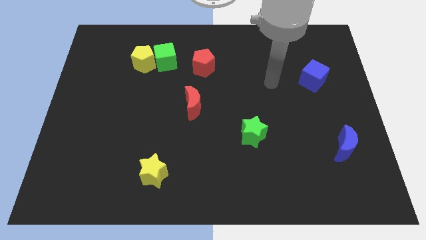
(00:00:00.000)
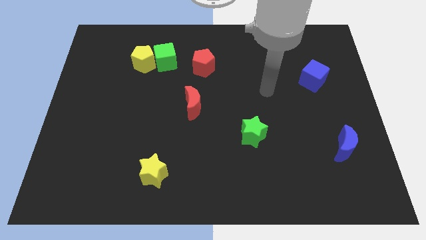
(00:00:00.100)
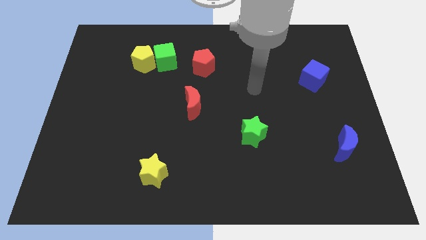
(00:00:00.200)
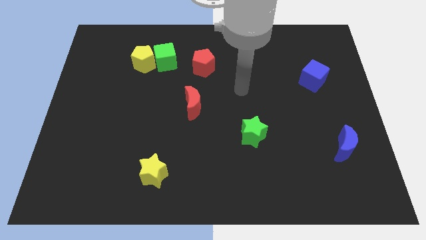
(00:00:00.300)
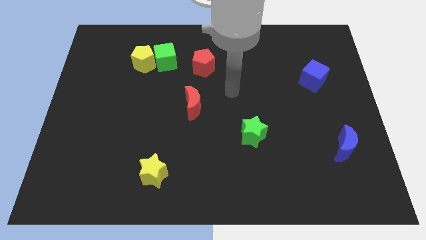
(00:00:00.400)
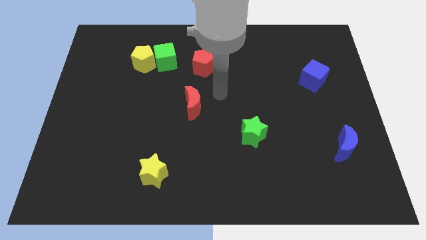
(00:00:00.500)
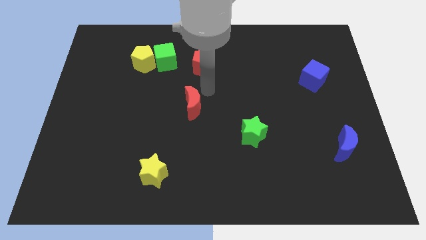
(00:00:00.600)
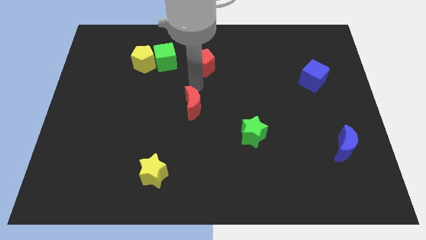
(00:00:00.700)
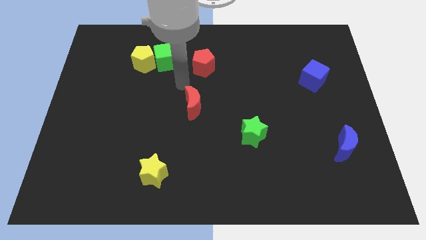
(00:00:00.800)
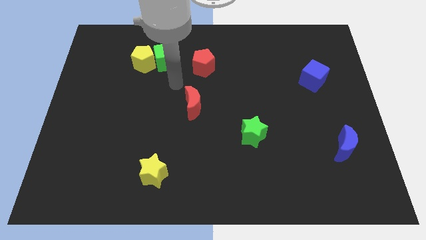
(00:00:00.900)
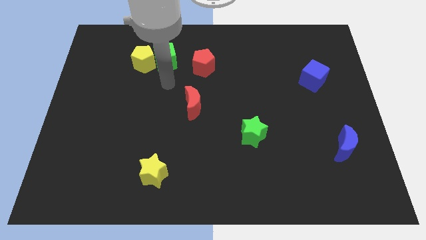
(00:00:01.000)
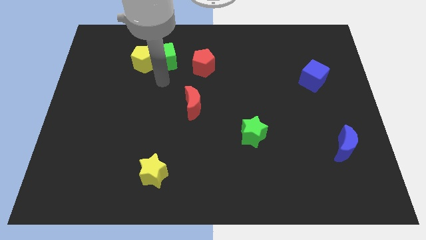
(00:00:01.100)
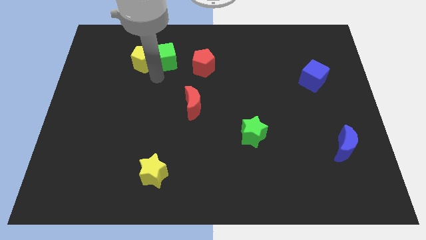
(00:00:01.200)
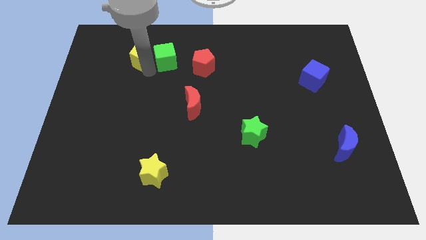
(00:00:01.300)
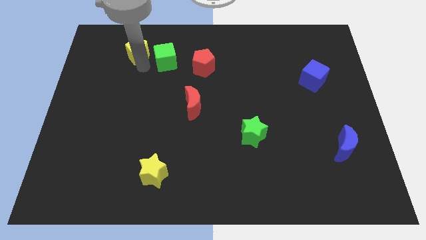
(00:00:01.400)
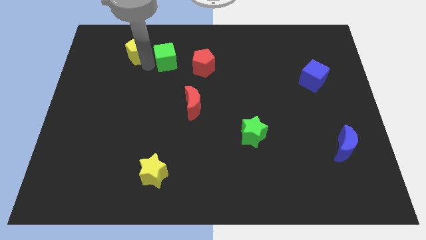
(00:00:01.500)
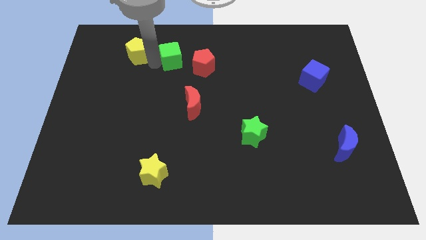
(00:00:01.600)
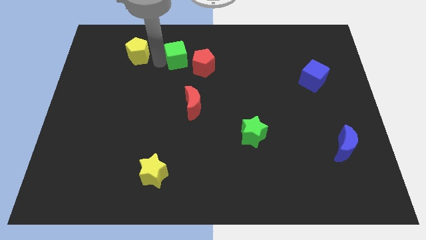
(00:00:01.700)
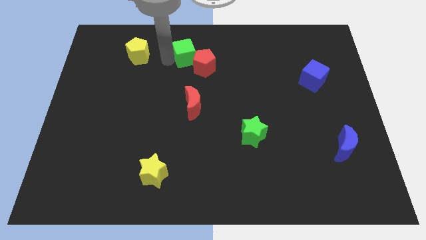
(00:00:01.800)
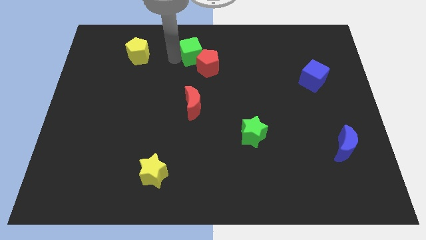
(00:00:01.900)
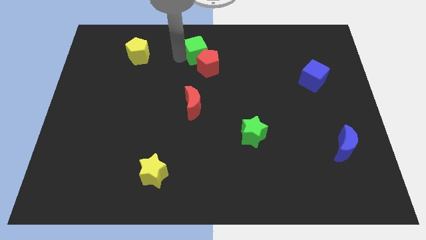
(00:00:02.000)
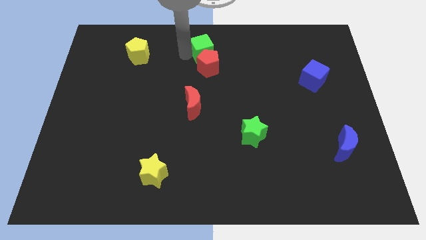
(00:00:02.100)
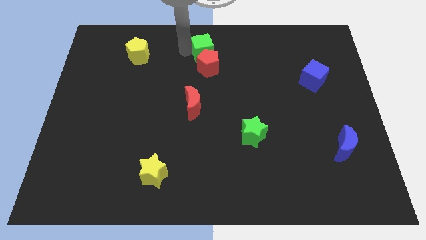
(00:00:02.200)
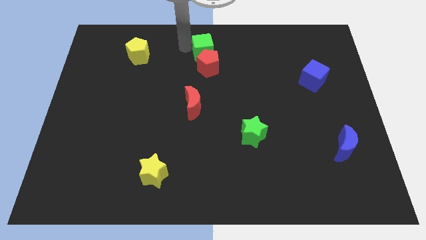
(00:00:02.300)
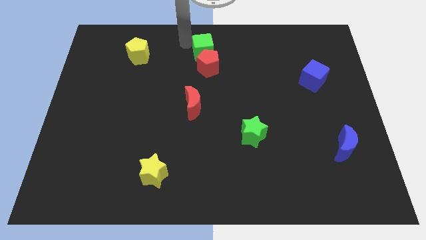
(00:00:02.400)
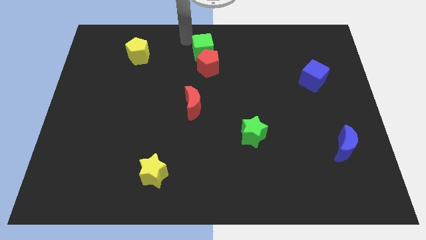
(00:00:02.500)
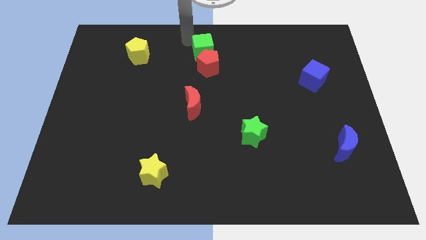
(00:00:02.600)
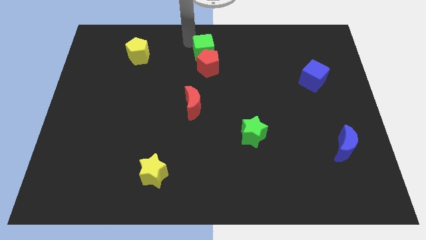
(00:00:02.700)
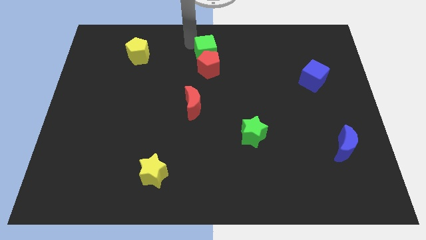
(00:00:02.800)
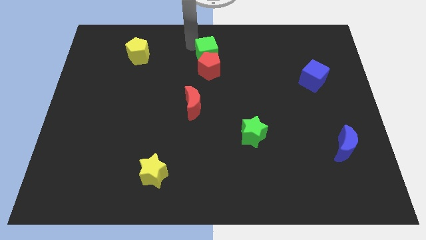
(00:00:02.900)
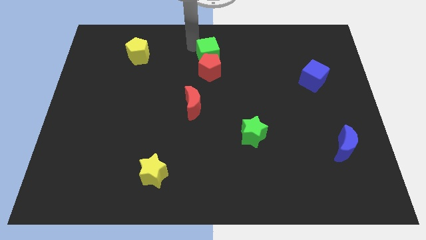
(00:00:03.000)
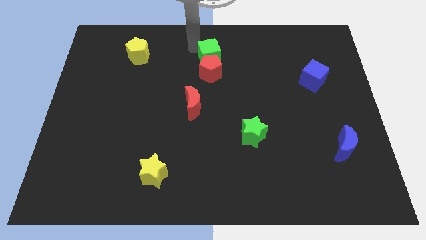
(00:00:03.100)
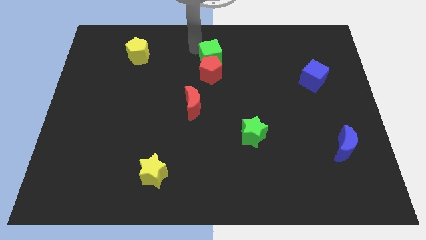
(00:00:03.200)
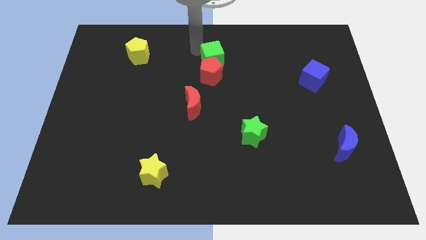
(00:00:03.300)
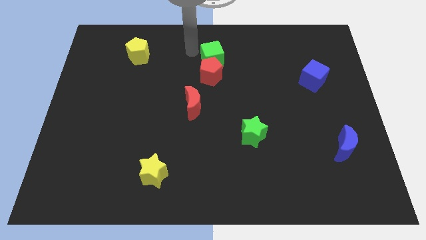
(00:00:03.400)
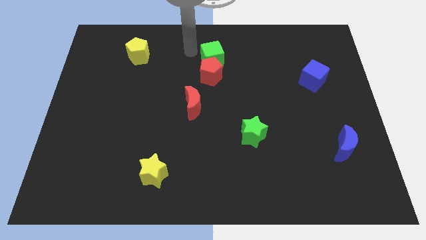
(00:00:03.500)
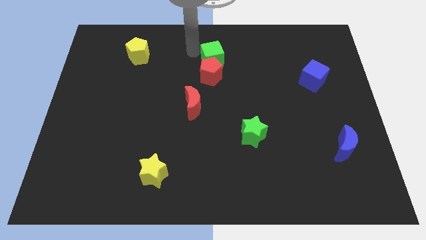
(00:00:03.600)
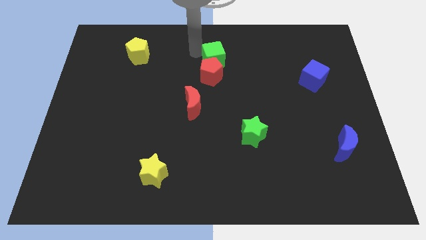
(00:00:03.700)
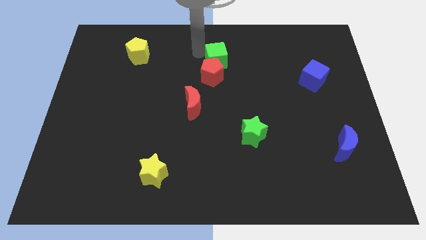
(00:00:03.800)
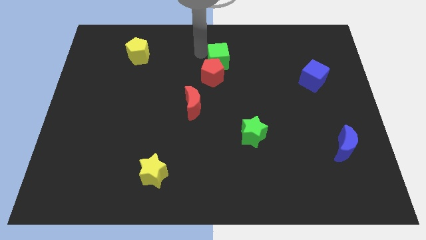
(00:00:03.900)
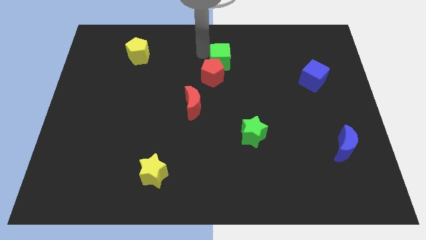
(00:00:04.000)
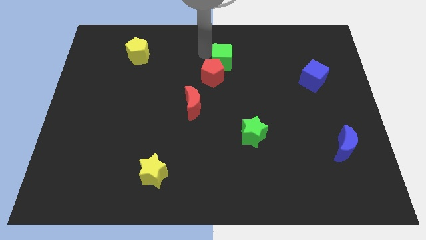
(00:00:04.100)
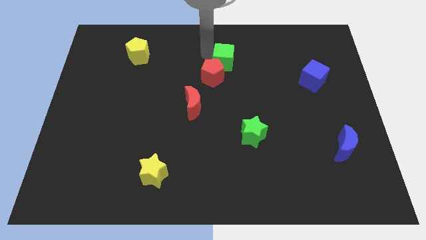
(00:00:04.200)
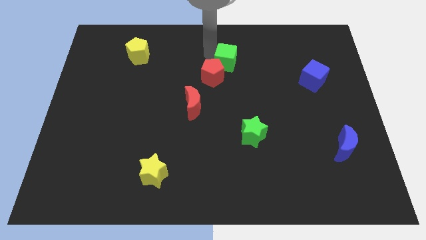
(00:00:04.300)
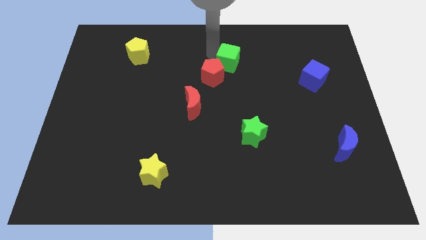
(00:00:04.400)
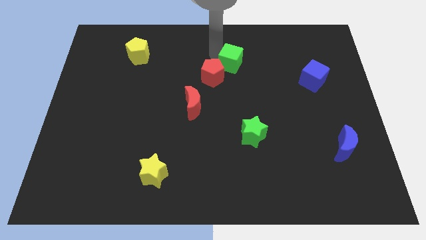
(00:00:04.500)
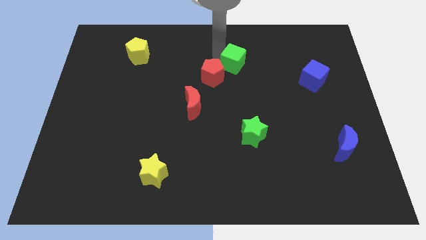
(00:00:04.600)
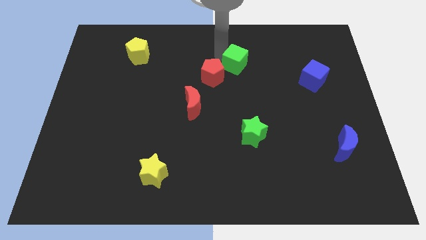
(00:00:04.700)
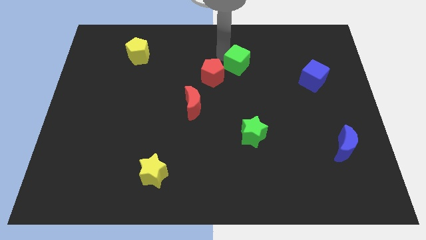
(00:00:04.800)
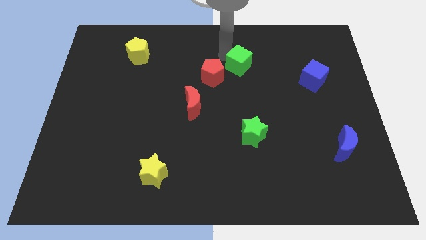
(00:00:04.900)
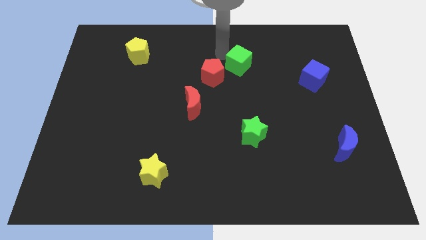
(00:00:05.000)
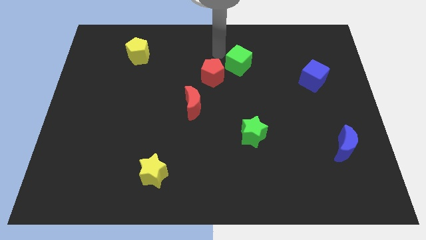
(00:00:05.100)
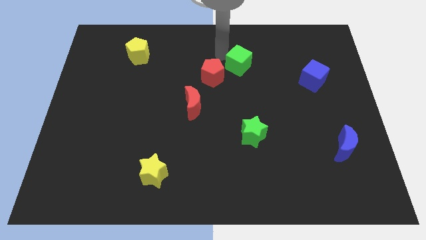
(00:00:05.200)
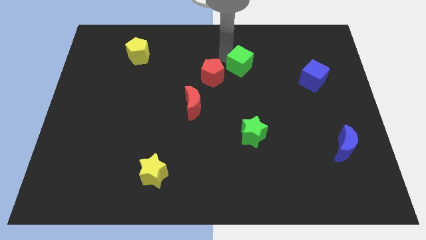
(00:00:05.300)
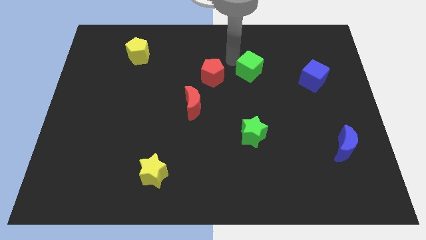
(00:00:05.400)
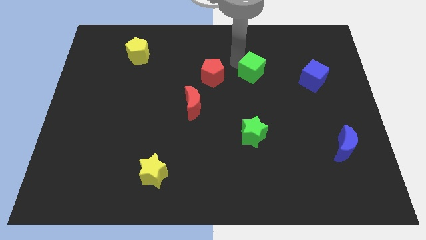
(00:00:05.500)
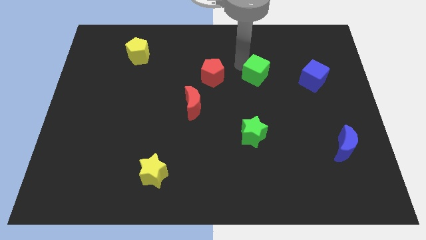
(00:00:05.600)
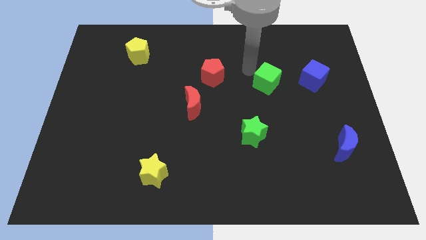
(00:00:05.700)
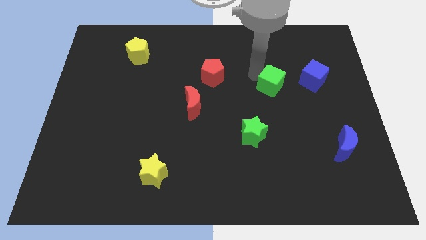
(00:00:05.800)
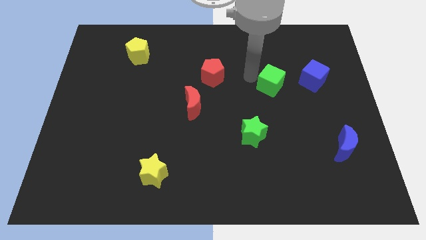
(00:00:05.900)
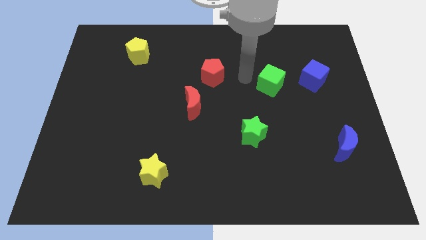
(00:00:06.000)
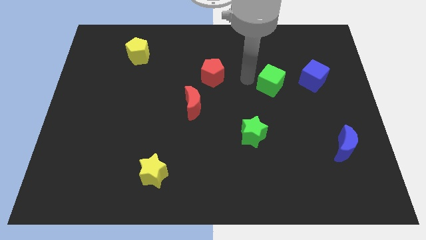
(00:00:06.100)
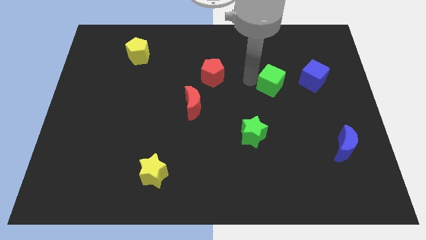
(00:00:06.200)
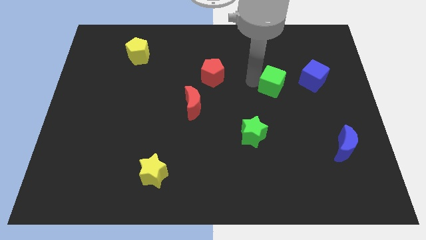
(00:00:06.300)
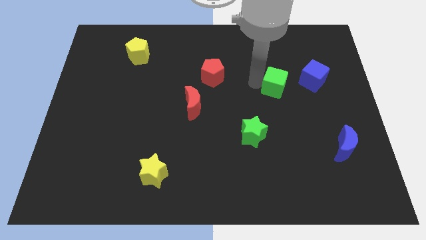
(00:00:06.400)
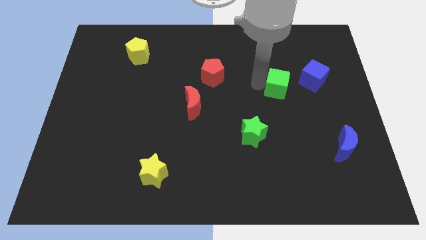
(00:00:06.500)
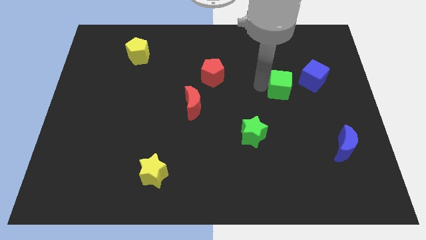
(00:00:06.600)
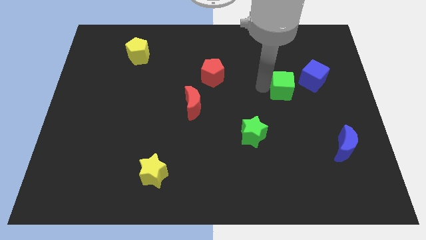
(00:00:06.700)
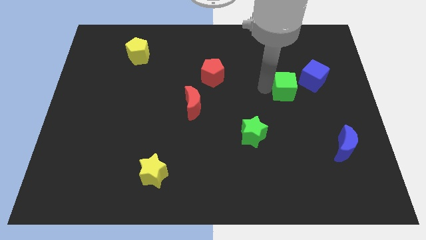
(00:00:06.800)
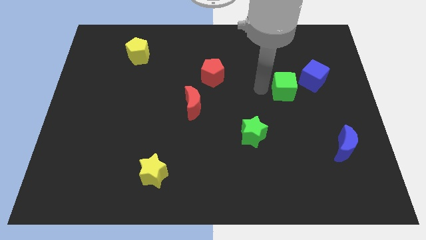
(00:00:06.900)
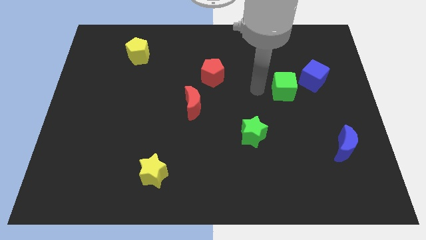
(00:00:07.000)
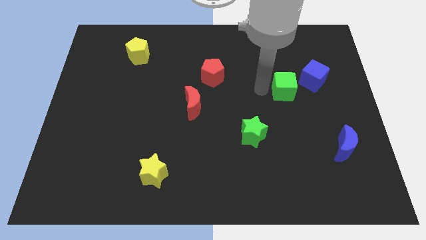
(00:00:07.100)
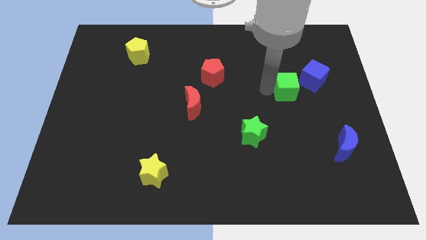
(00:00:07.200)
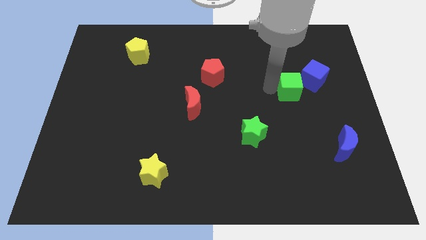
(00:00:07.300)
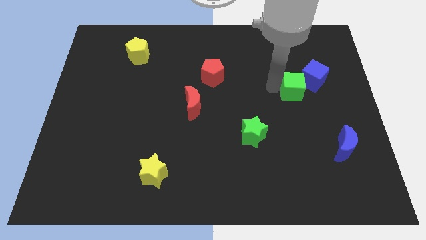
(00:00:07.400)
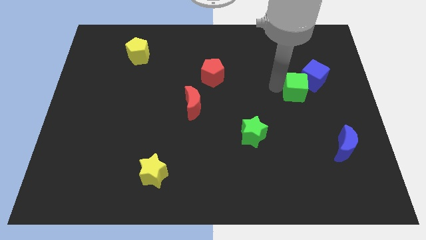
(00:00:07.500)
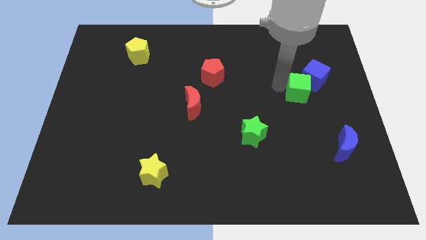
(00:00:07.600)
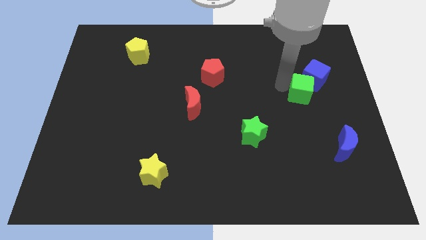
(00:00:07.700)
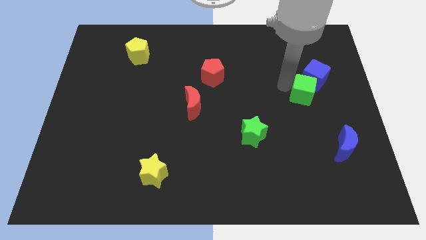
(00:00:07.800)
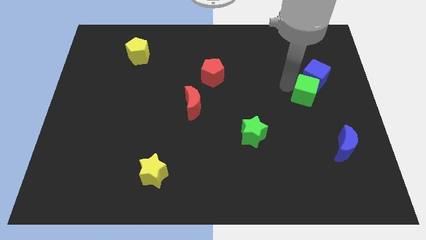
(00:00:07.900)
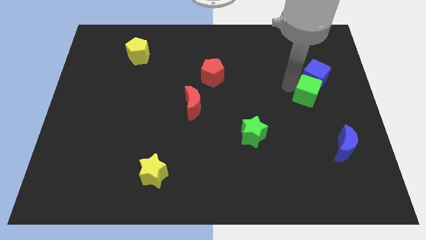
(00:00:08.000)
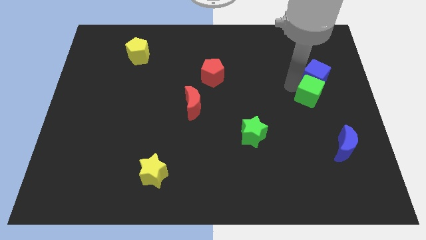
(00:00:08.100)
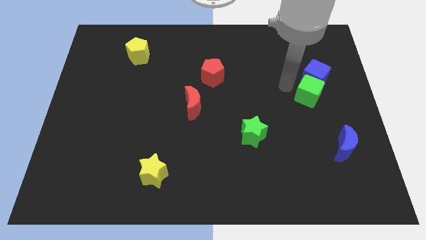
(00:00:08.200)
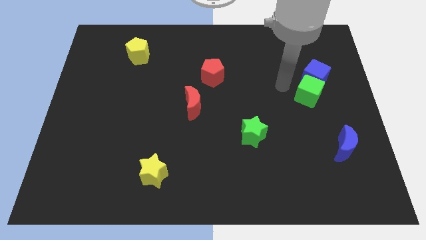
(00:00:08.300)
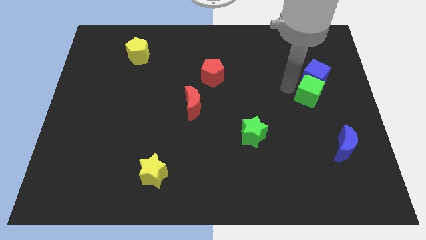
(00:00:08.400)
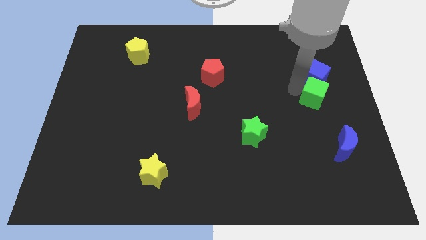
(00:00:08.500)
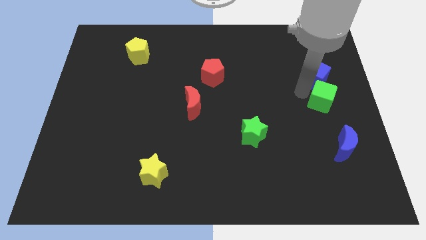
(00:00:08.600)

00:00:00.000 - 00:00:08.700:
push the green cube to the right side of the board
